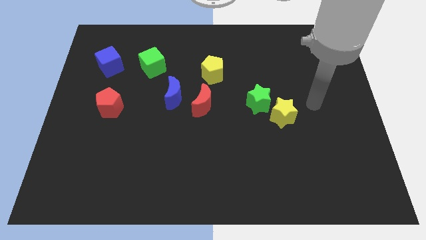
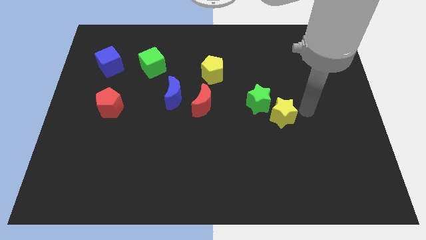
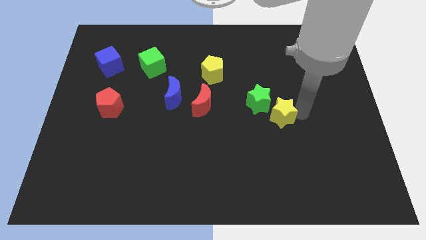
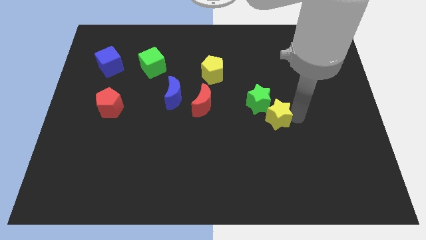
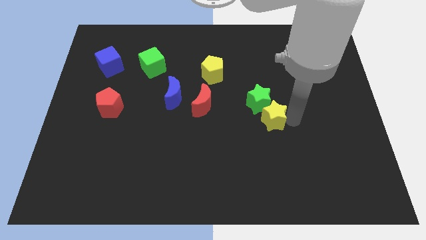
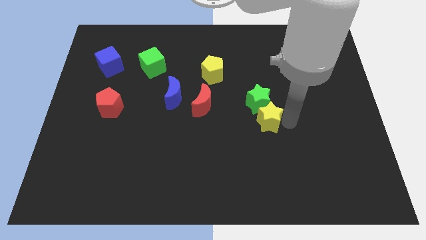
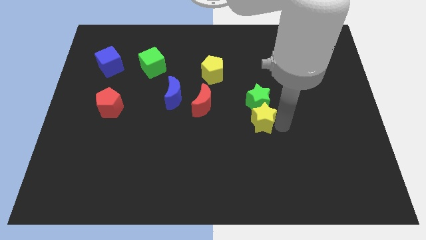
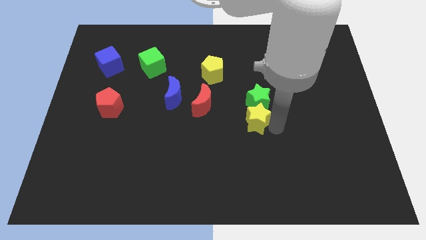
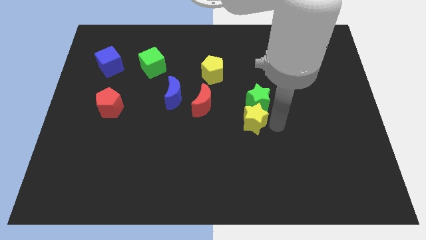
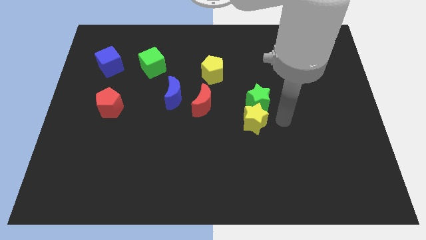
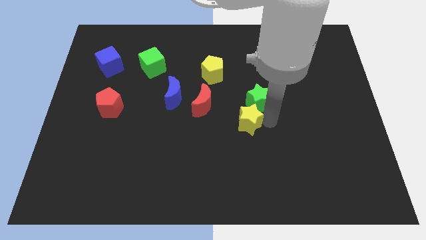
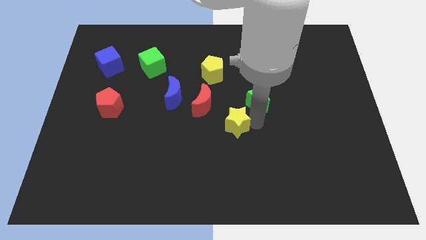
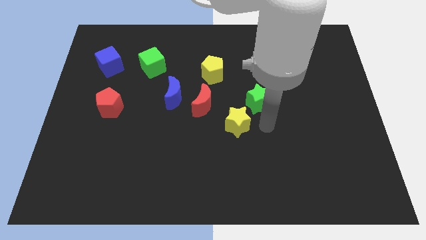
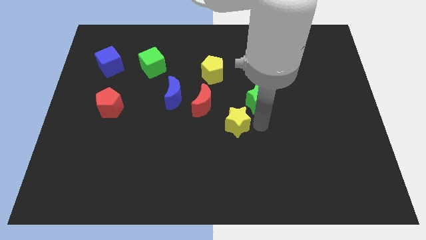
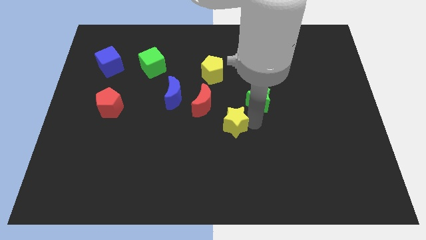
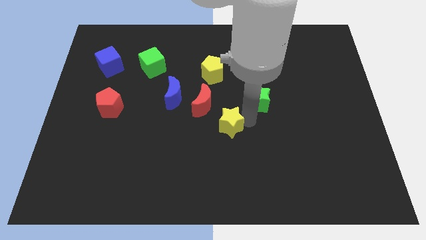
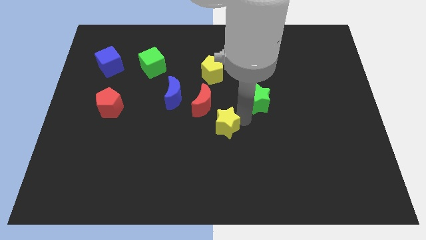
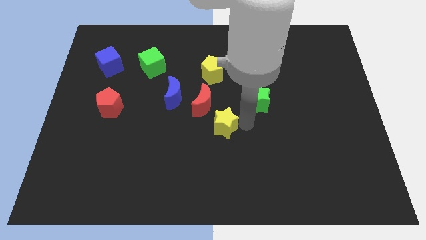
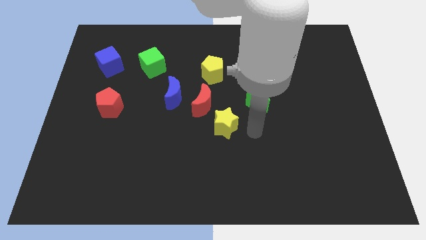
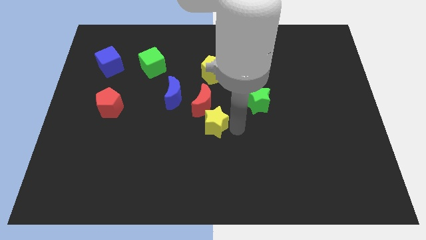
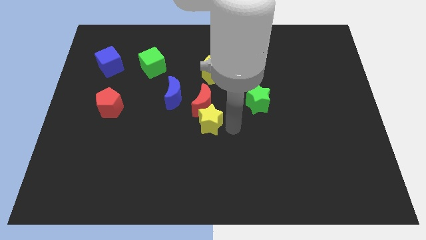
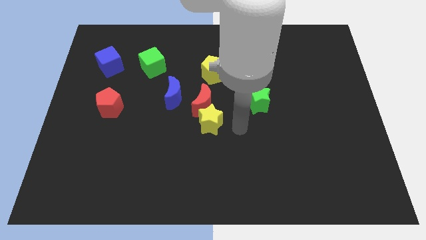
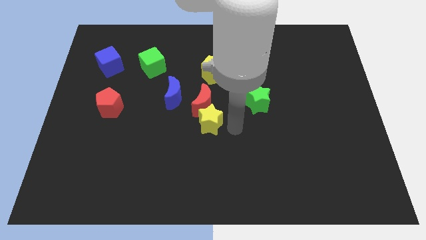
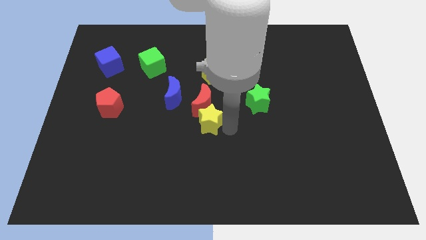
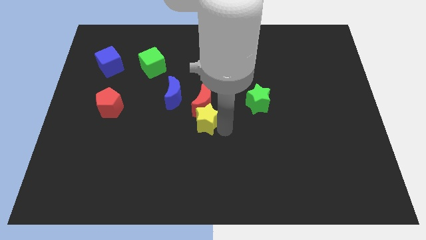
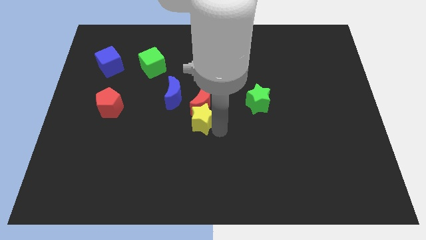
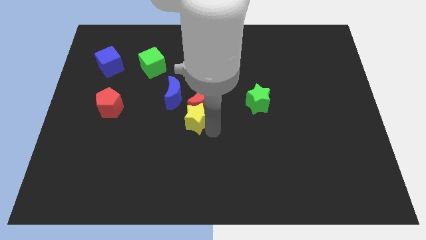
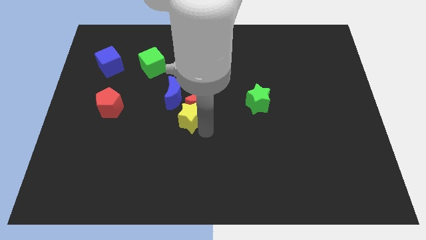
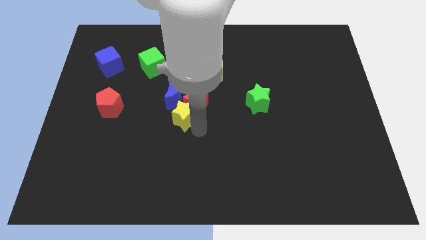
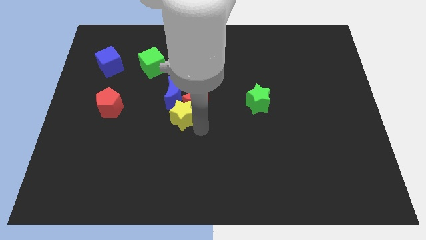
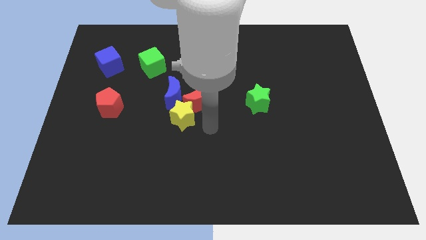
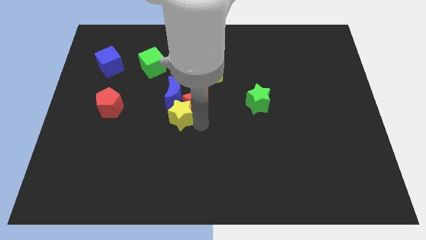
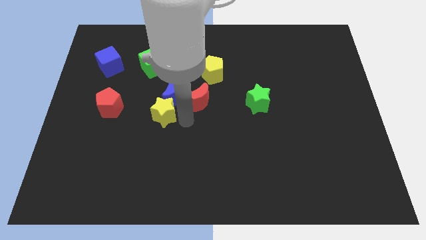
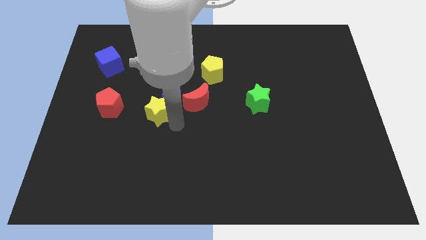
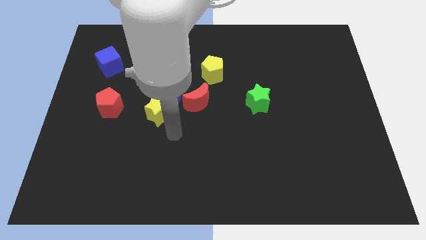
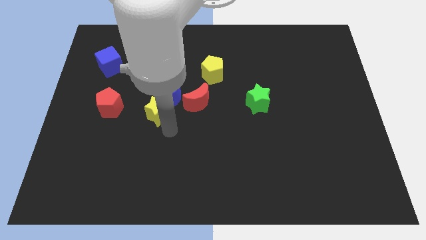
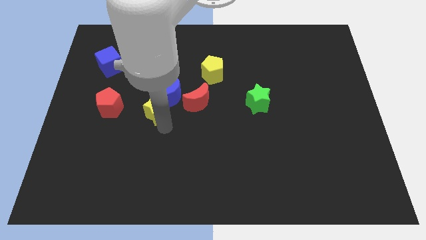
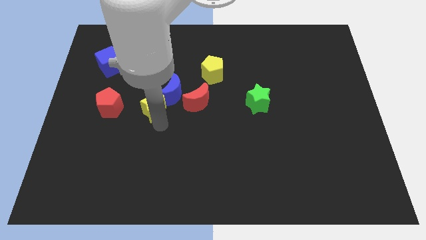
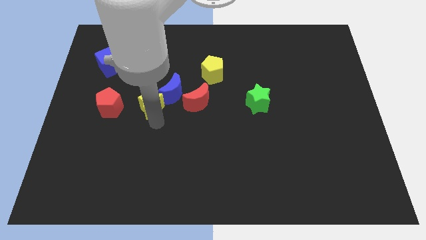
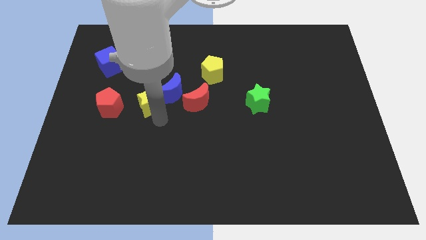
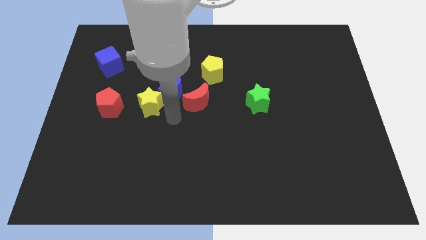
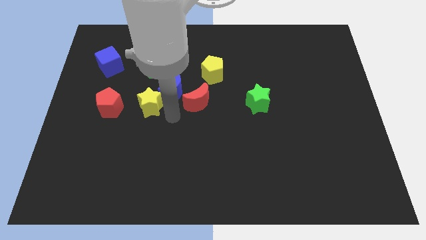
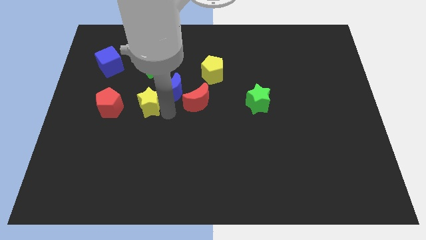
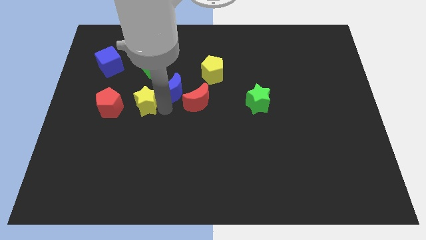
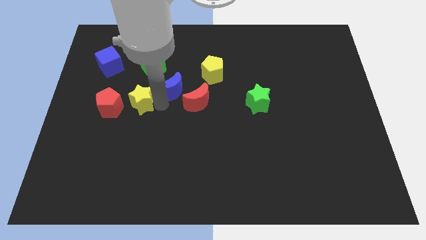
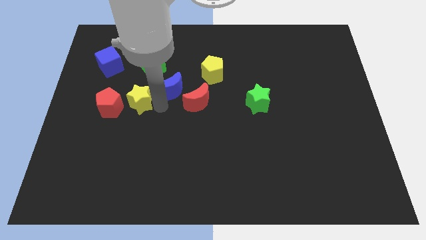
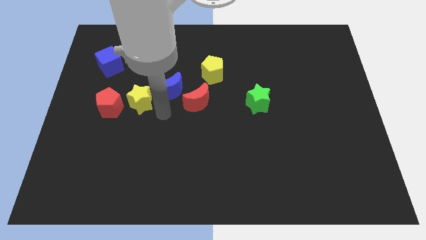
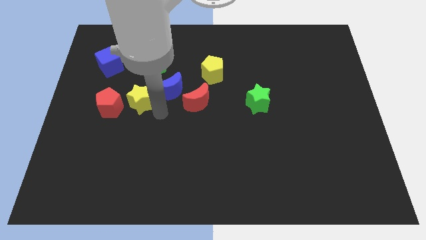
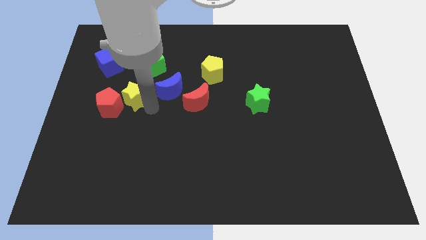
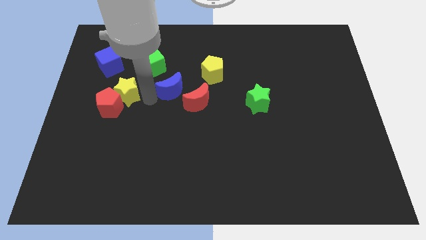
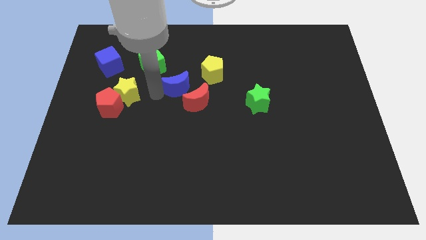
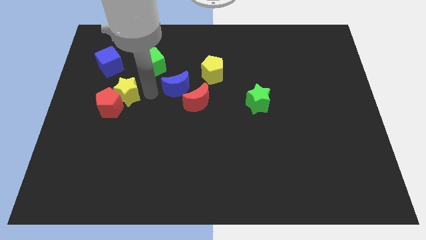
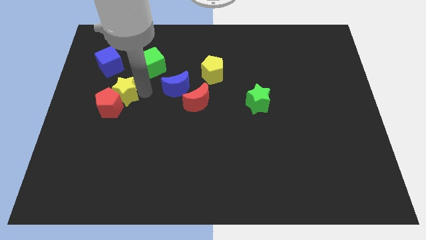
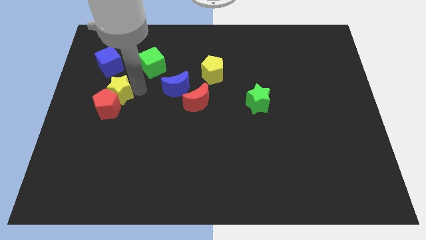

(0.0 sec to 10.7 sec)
push the yellow star below the blue cube

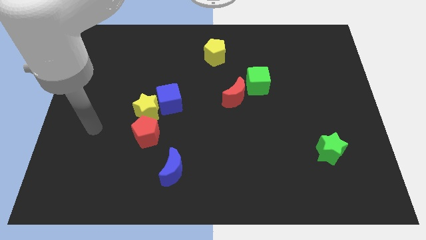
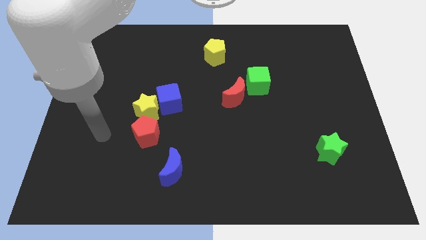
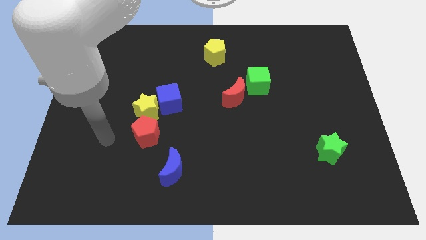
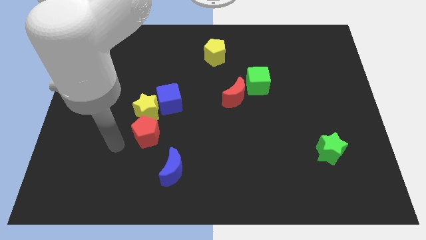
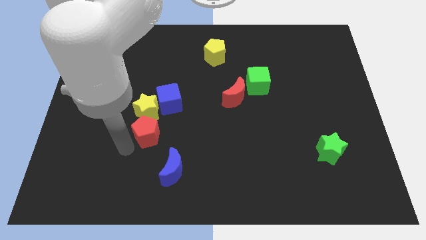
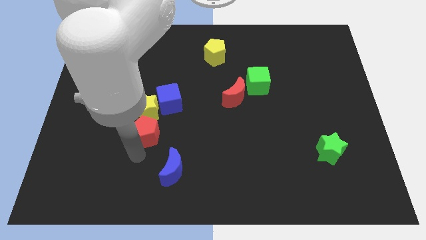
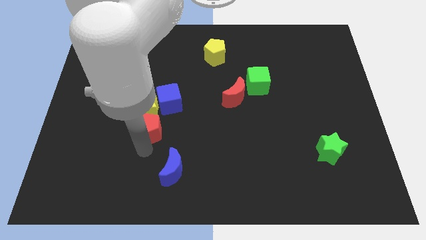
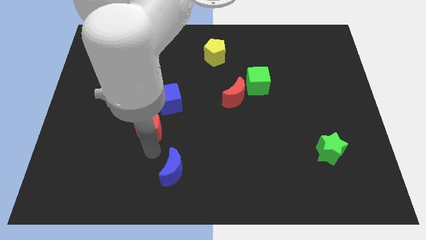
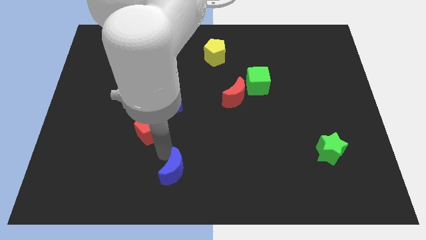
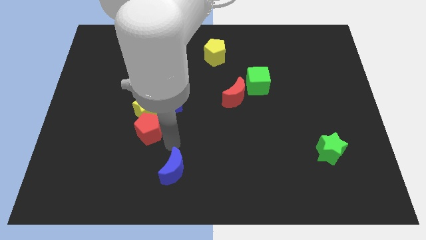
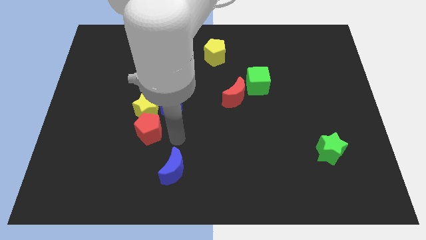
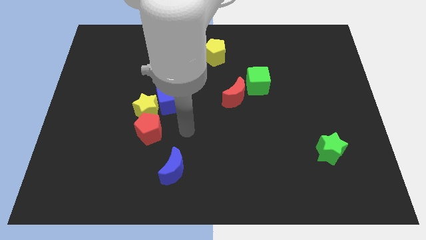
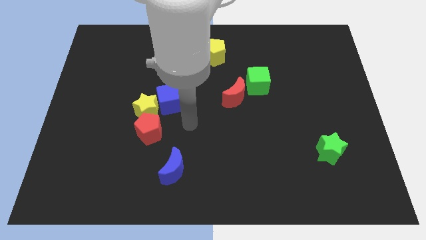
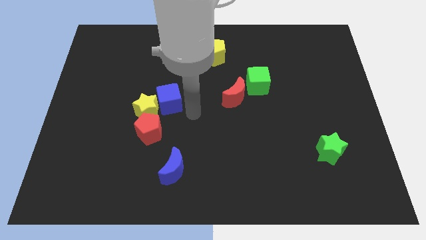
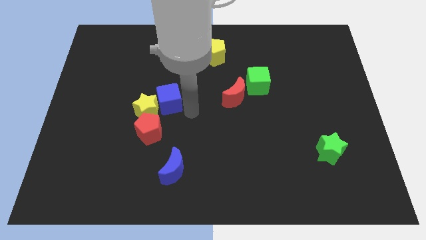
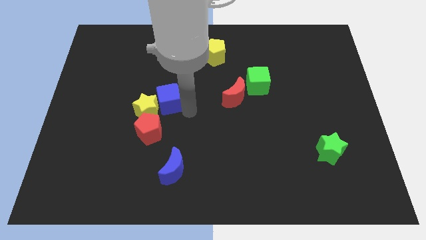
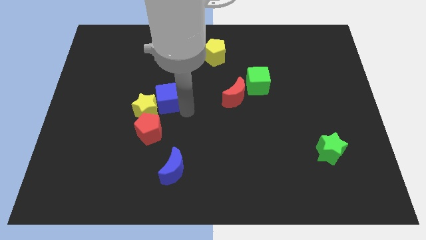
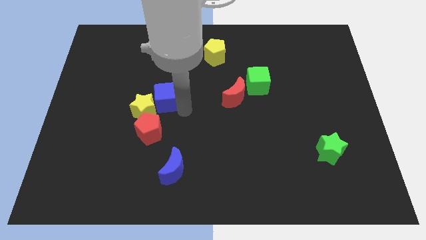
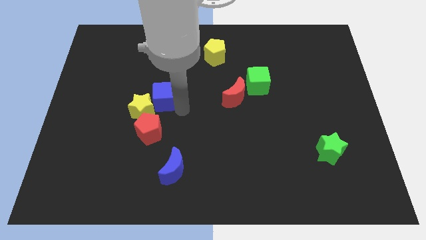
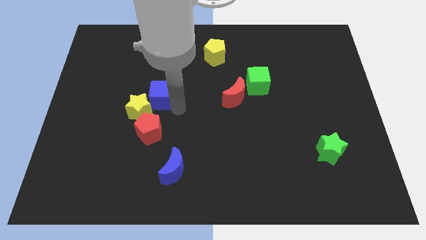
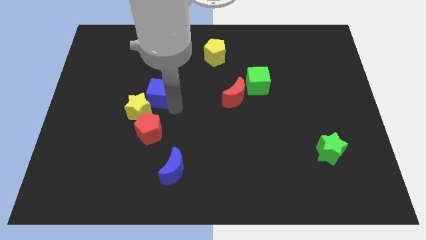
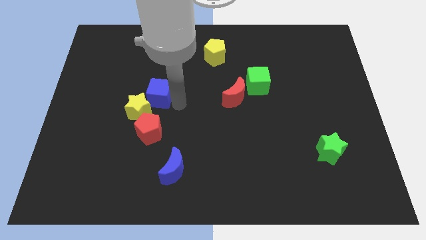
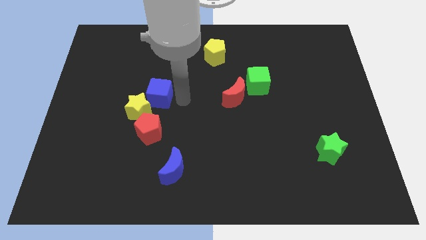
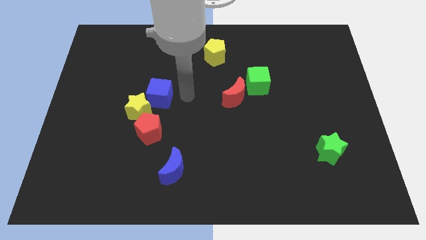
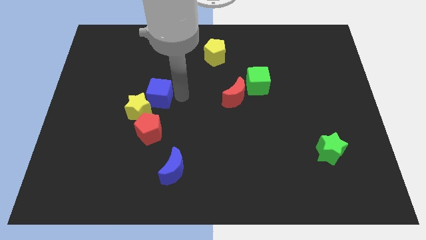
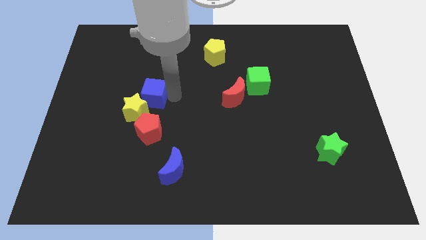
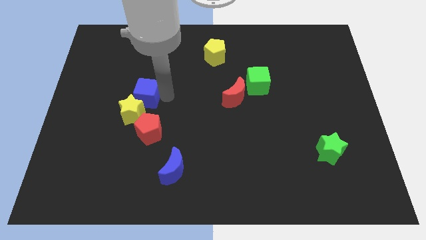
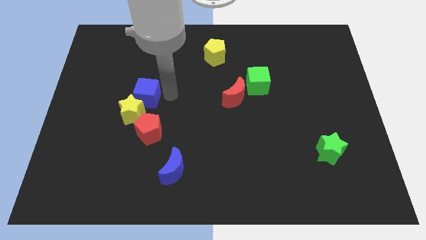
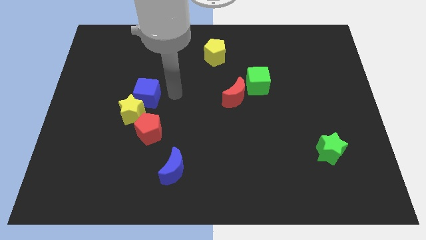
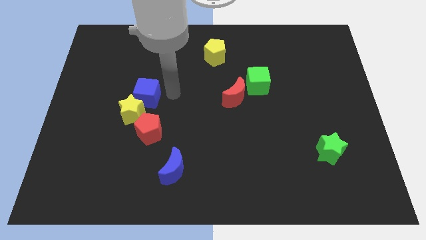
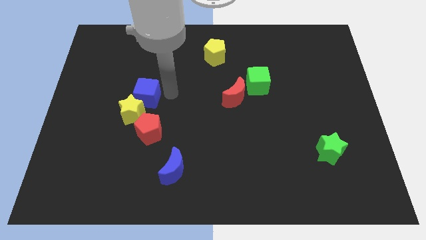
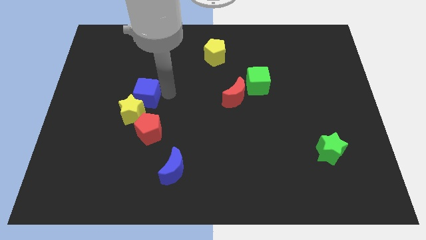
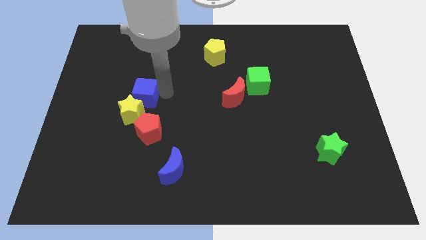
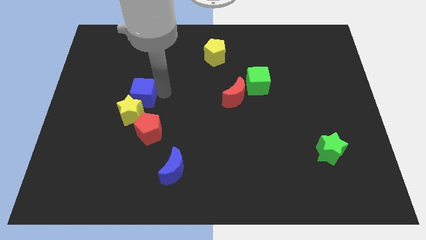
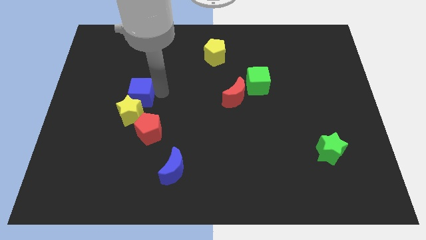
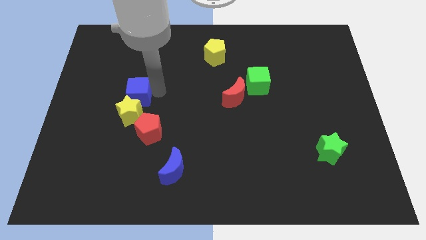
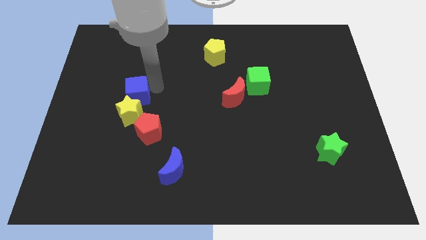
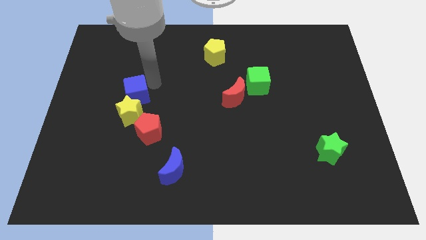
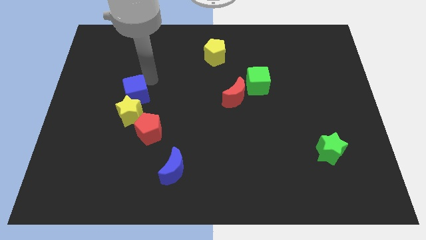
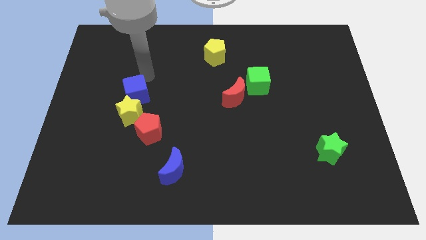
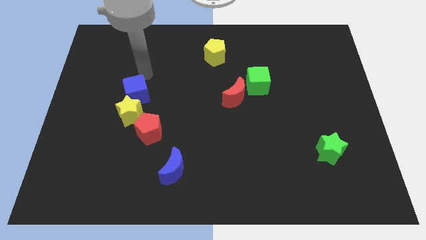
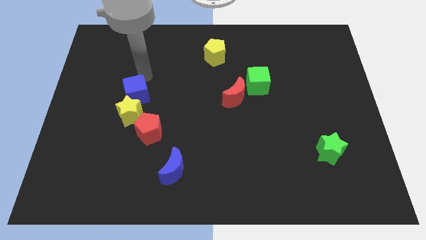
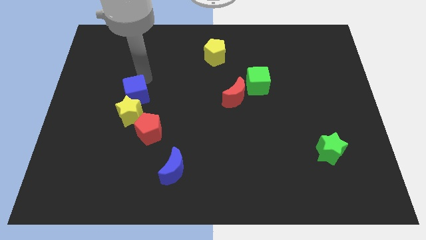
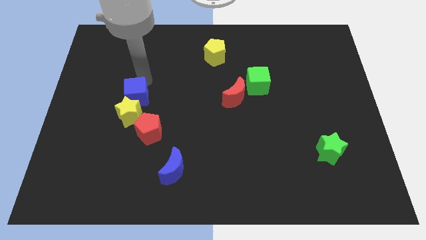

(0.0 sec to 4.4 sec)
slide the blue cube to the top left of the red pentagon
